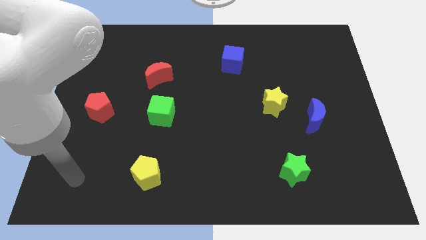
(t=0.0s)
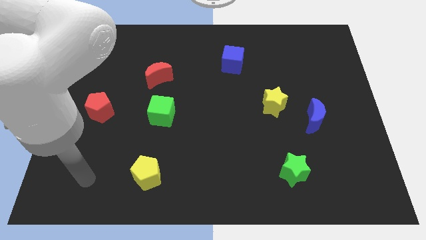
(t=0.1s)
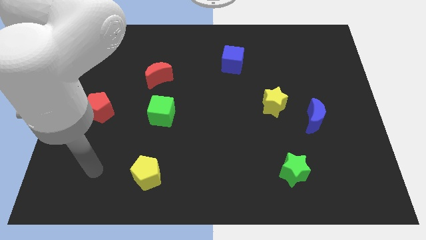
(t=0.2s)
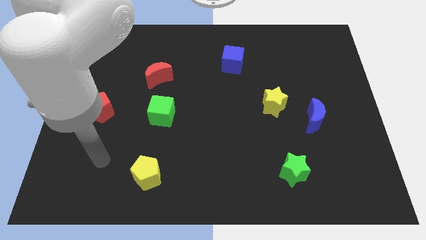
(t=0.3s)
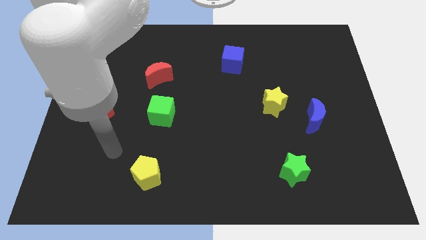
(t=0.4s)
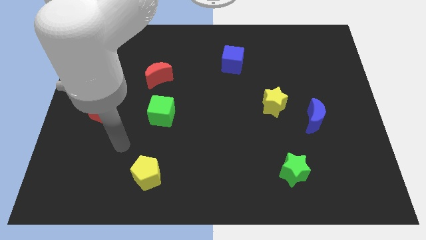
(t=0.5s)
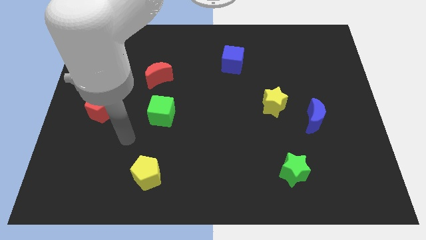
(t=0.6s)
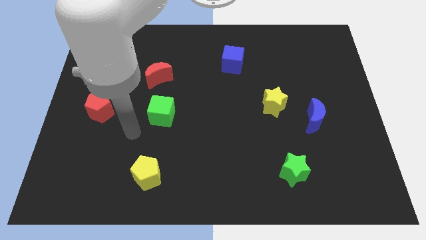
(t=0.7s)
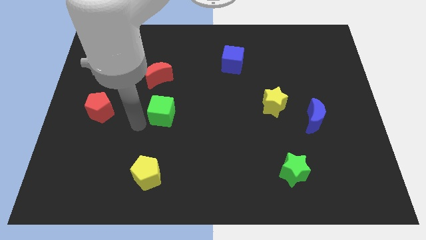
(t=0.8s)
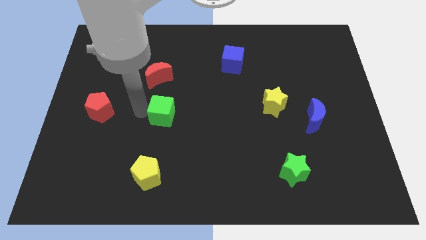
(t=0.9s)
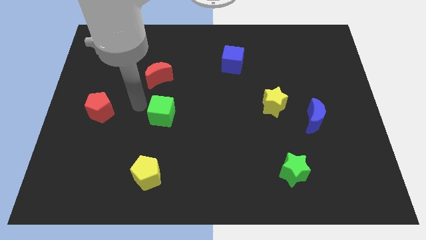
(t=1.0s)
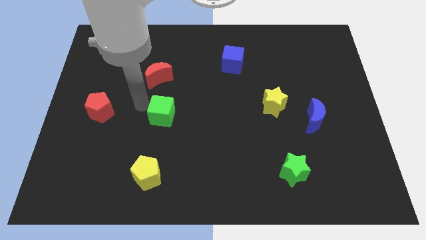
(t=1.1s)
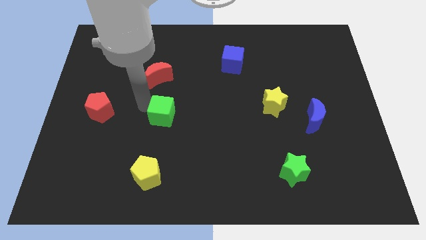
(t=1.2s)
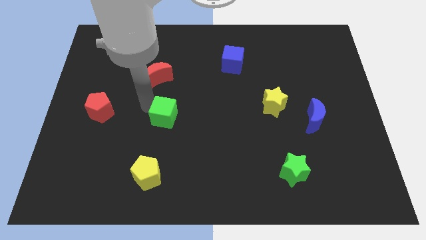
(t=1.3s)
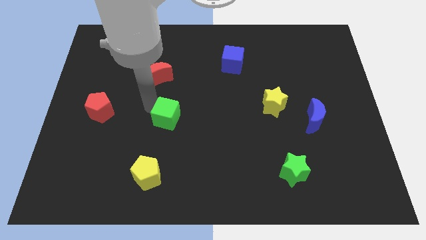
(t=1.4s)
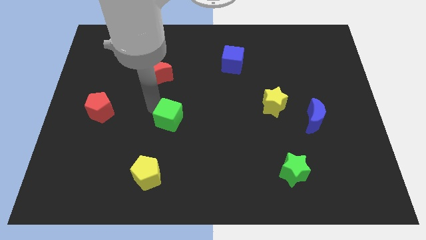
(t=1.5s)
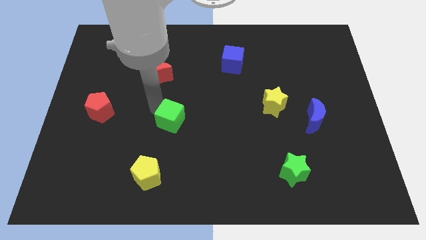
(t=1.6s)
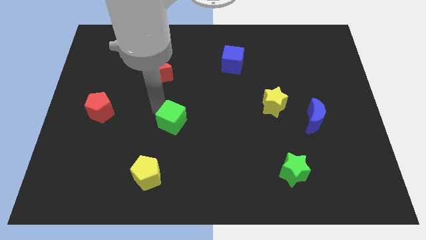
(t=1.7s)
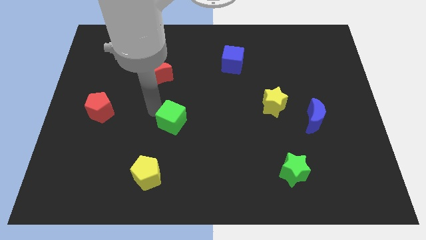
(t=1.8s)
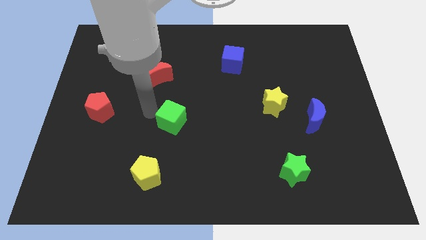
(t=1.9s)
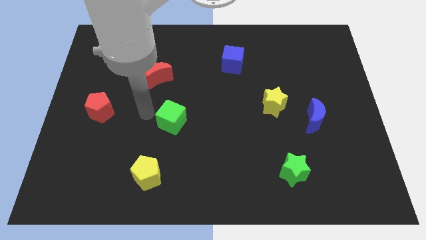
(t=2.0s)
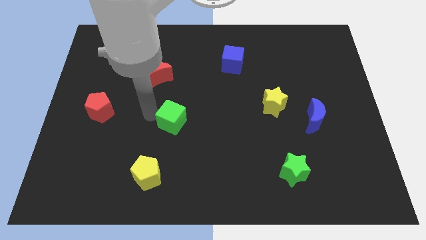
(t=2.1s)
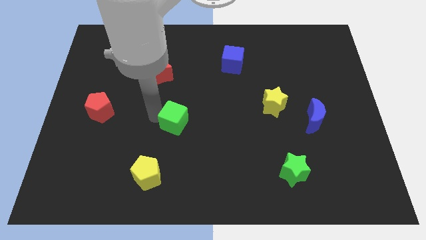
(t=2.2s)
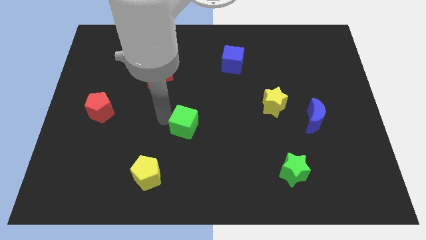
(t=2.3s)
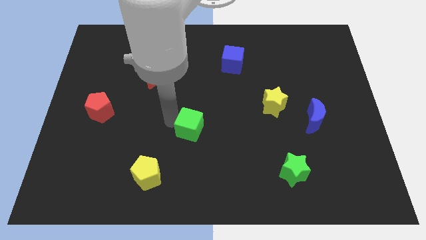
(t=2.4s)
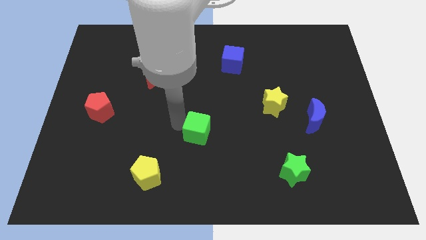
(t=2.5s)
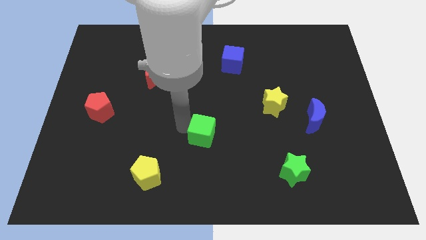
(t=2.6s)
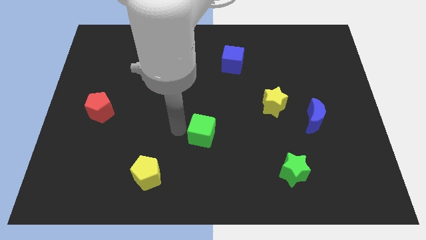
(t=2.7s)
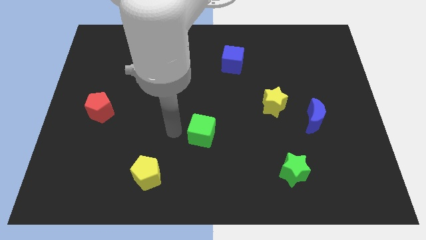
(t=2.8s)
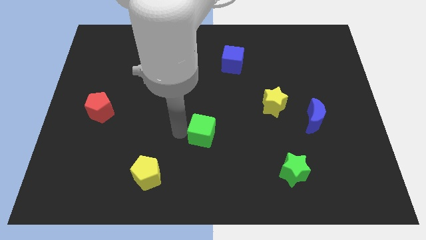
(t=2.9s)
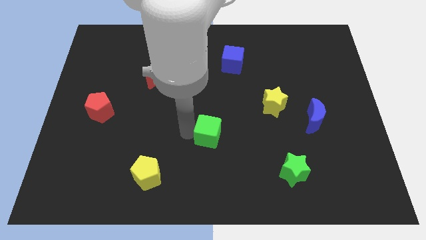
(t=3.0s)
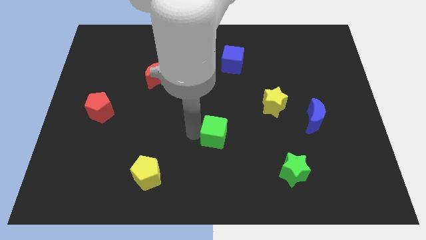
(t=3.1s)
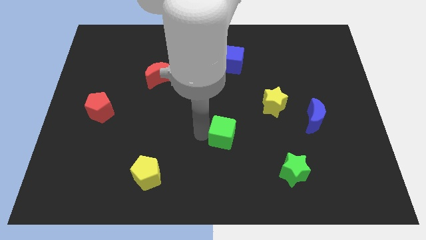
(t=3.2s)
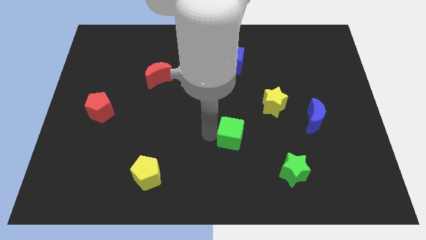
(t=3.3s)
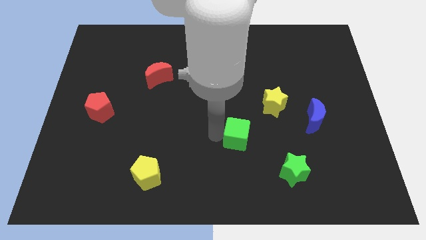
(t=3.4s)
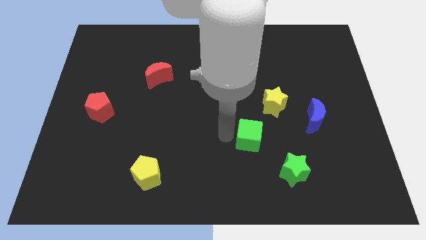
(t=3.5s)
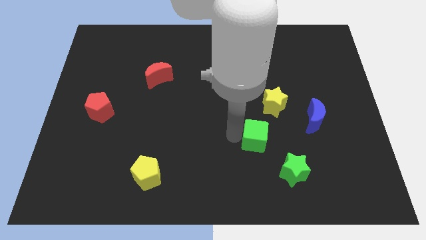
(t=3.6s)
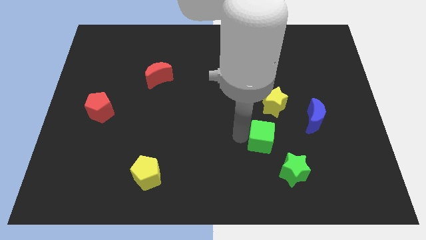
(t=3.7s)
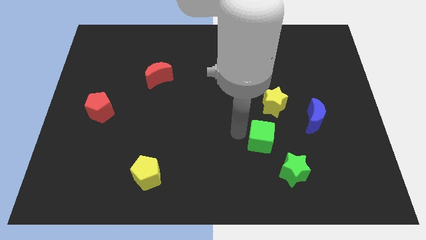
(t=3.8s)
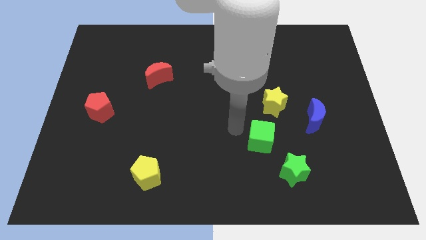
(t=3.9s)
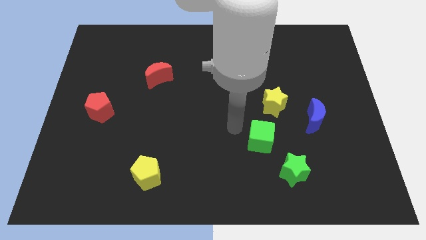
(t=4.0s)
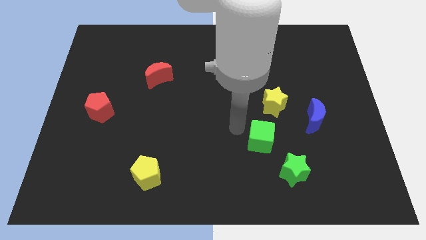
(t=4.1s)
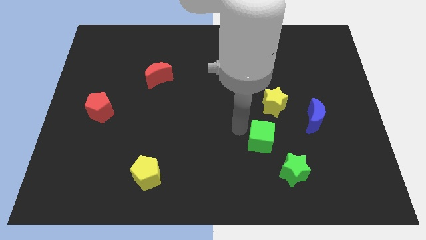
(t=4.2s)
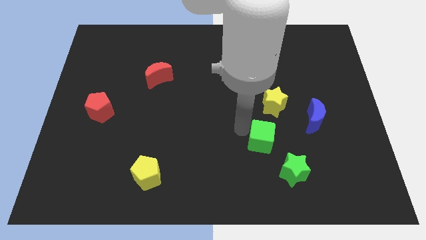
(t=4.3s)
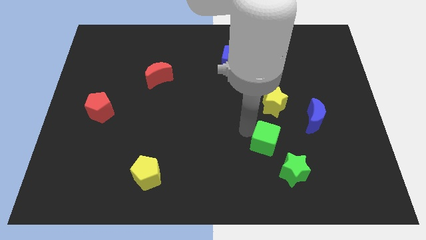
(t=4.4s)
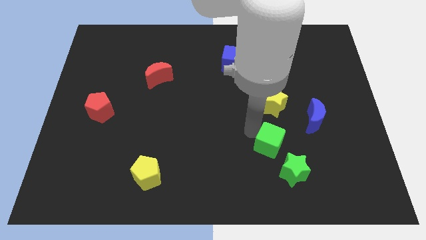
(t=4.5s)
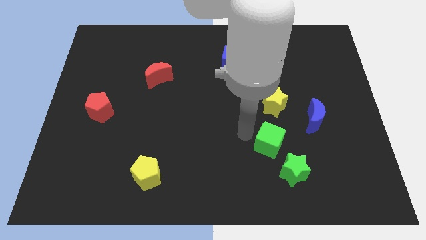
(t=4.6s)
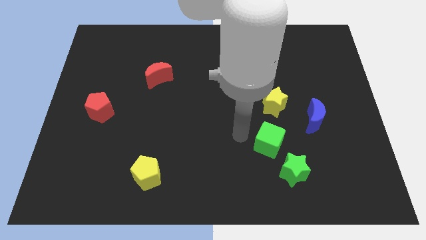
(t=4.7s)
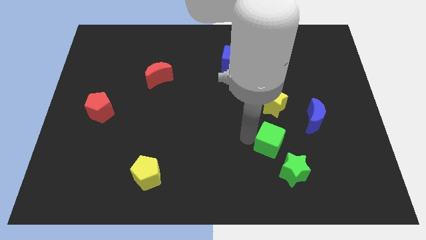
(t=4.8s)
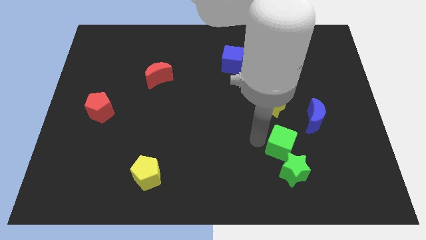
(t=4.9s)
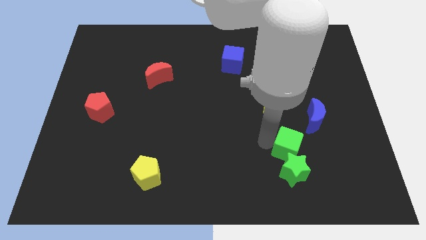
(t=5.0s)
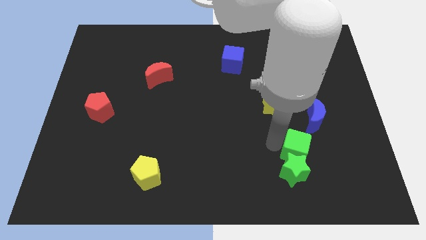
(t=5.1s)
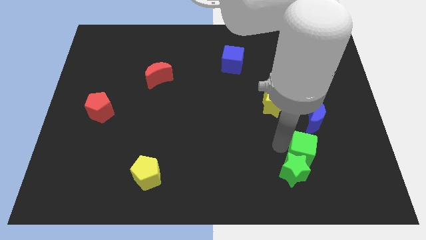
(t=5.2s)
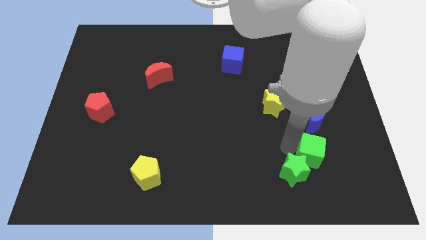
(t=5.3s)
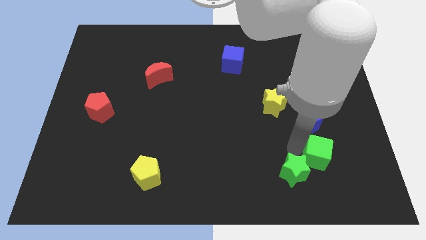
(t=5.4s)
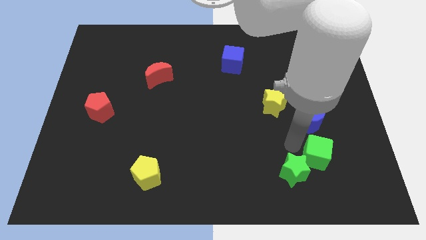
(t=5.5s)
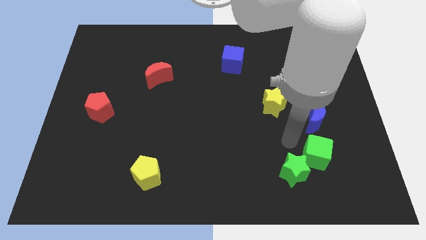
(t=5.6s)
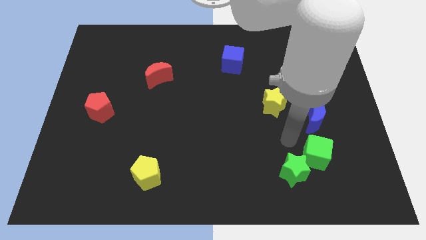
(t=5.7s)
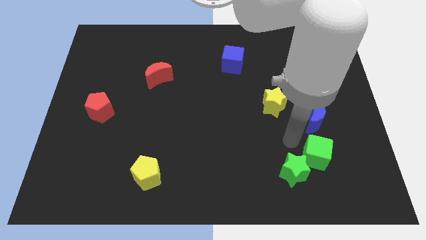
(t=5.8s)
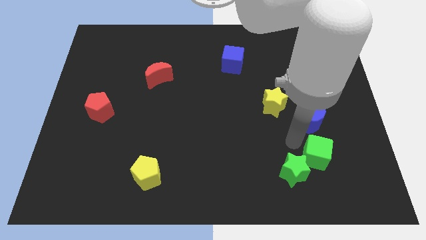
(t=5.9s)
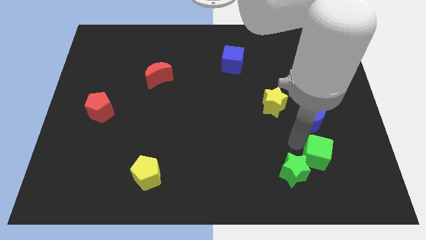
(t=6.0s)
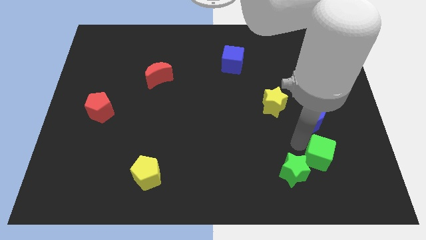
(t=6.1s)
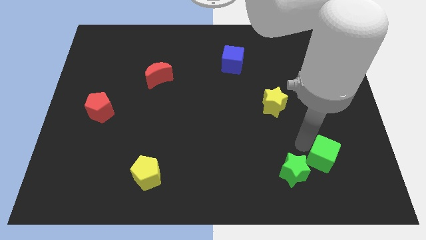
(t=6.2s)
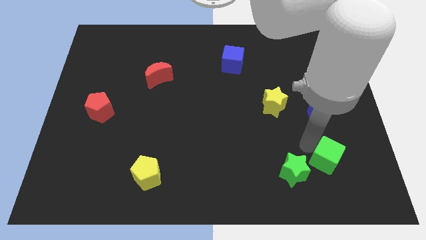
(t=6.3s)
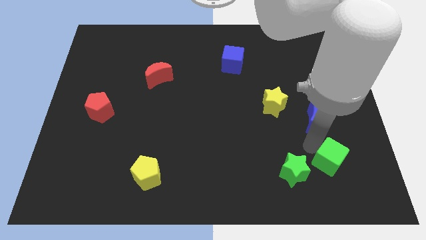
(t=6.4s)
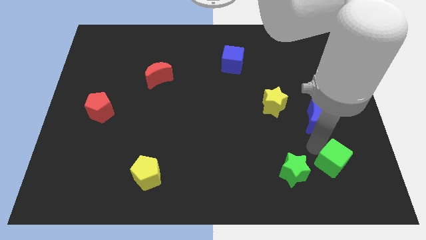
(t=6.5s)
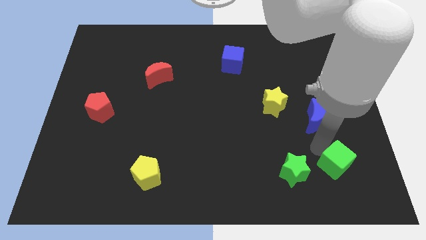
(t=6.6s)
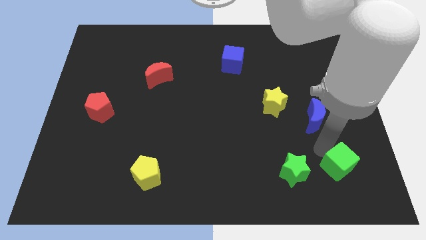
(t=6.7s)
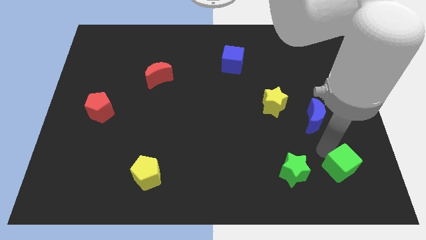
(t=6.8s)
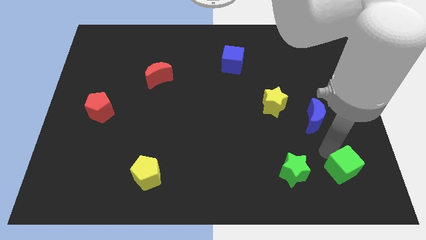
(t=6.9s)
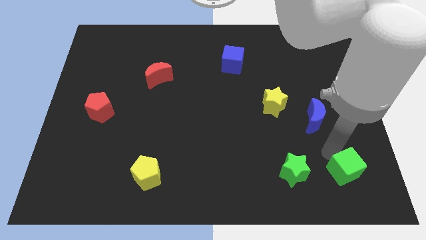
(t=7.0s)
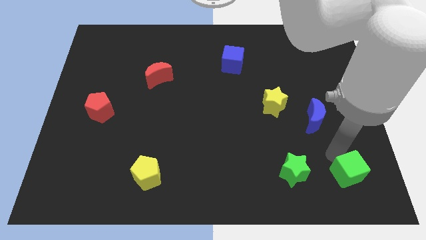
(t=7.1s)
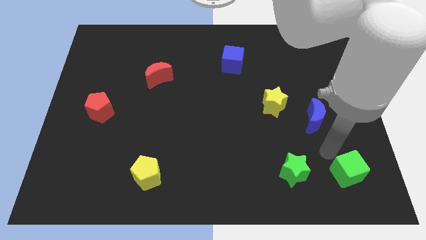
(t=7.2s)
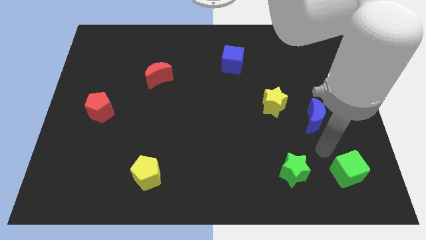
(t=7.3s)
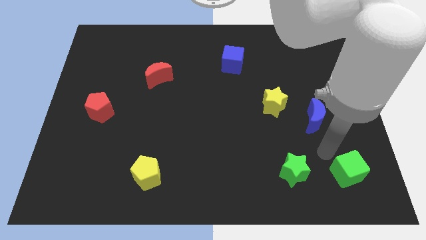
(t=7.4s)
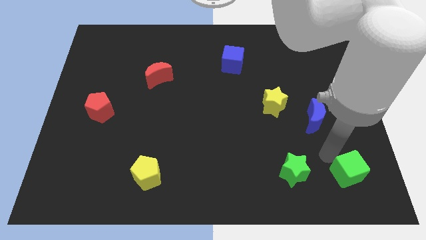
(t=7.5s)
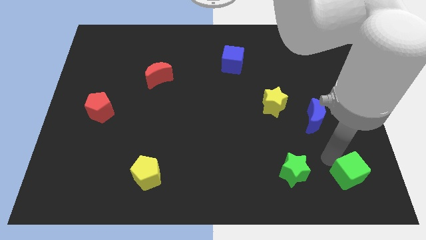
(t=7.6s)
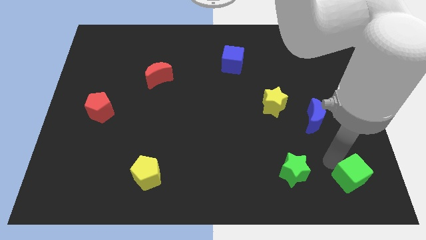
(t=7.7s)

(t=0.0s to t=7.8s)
push the green cube to the bottom right corner
